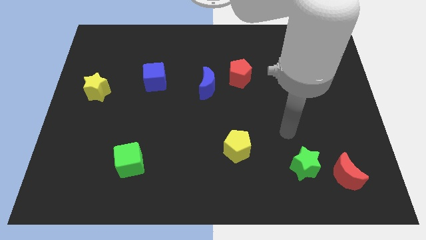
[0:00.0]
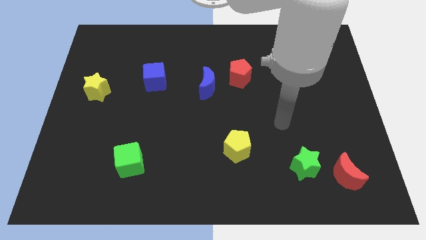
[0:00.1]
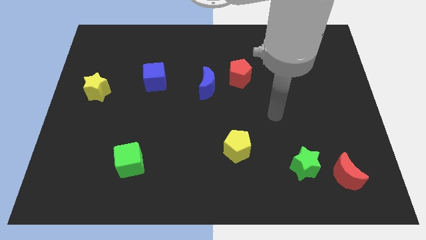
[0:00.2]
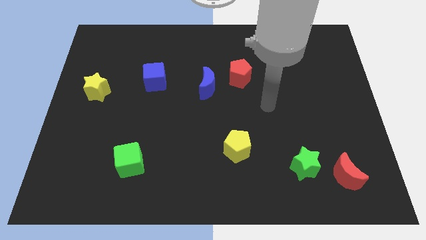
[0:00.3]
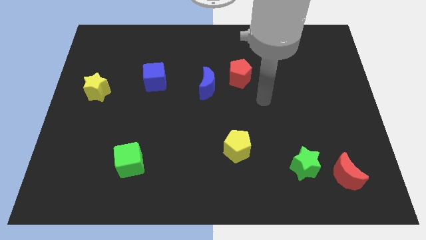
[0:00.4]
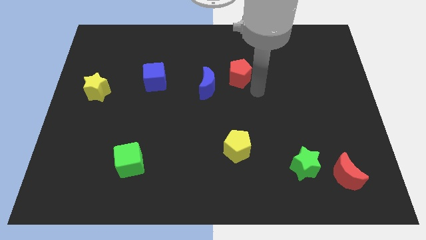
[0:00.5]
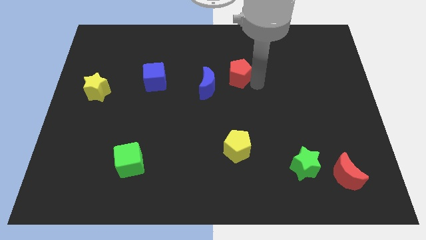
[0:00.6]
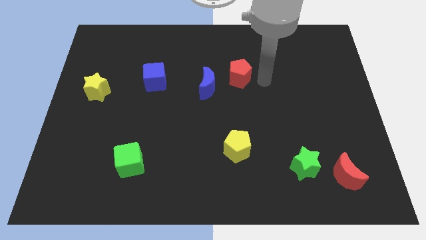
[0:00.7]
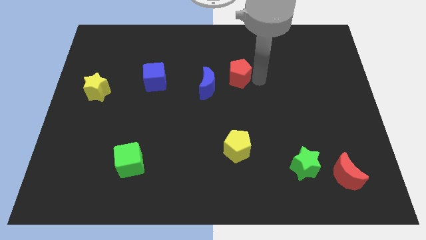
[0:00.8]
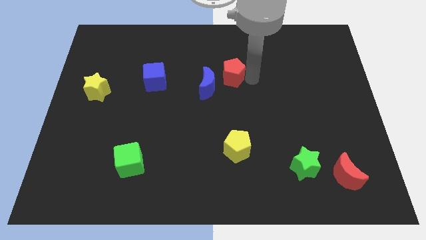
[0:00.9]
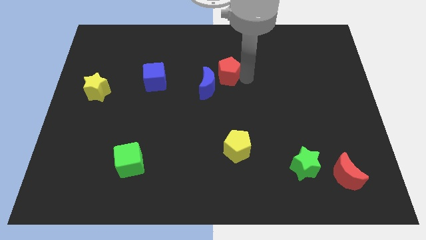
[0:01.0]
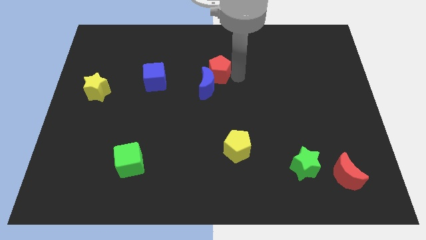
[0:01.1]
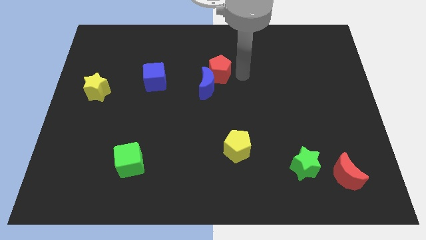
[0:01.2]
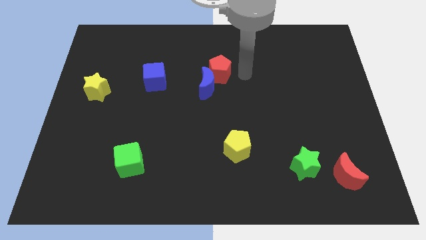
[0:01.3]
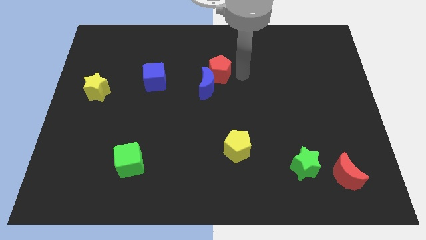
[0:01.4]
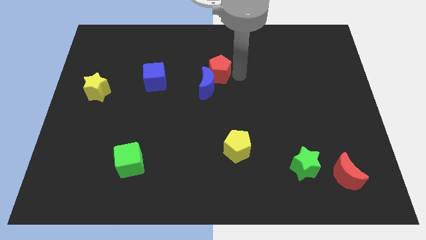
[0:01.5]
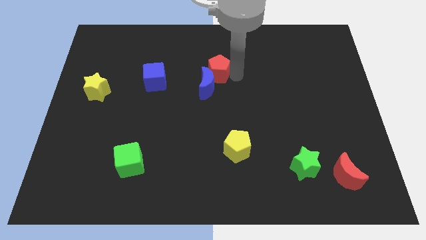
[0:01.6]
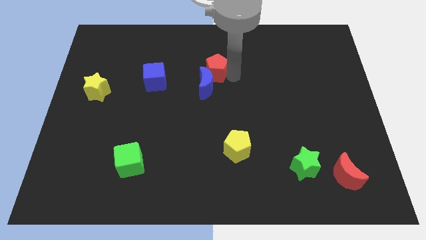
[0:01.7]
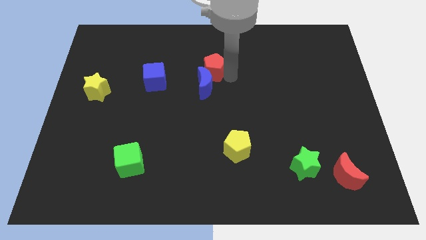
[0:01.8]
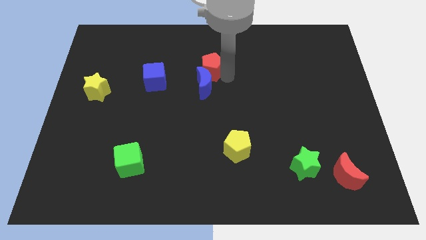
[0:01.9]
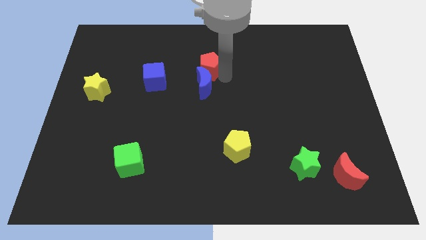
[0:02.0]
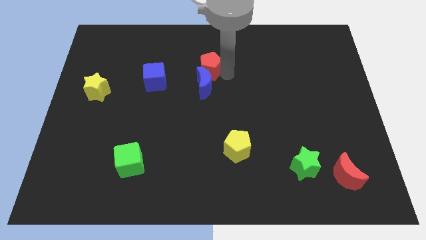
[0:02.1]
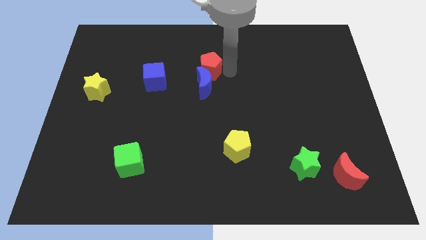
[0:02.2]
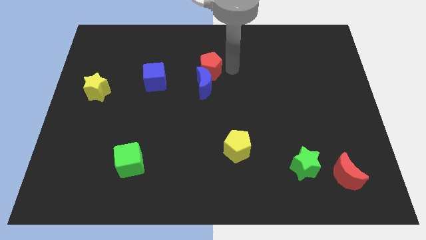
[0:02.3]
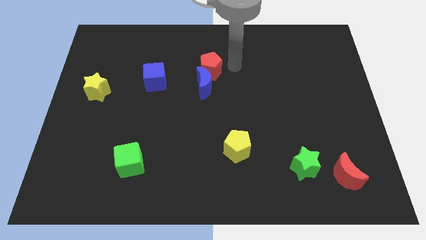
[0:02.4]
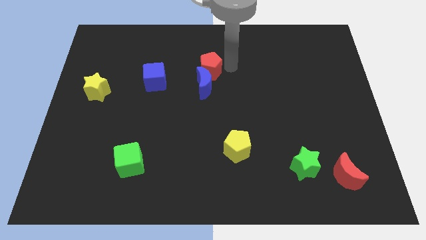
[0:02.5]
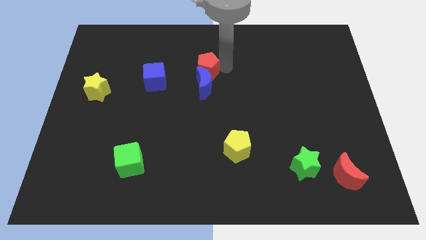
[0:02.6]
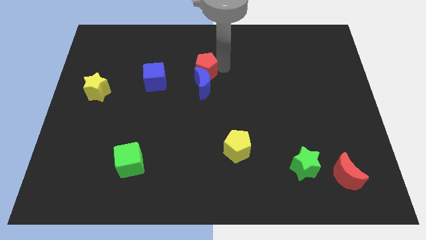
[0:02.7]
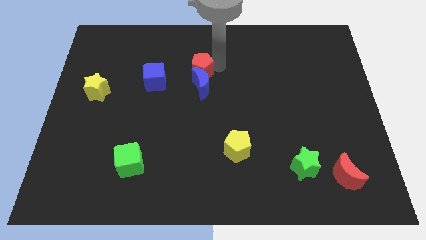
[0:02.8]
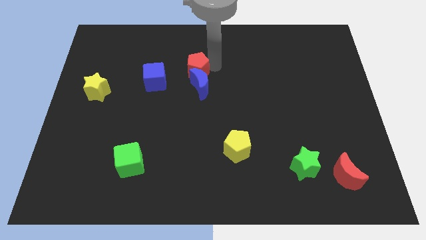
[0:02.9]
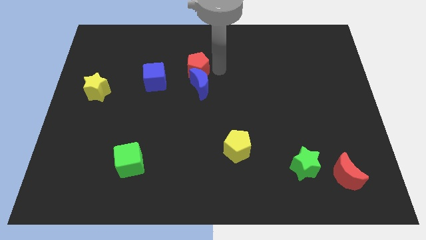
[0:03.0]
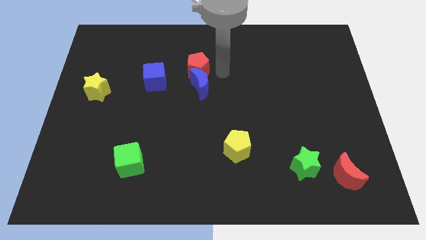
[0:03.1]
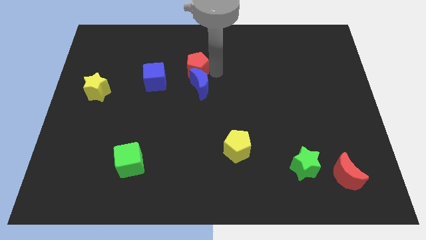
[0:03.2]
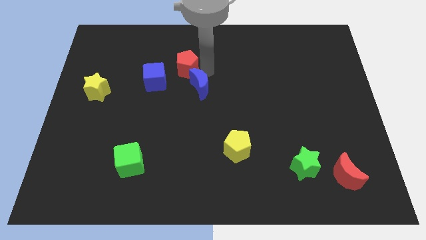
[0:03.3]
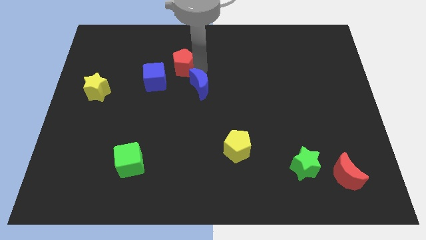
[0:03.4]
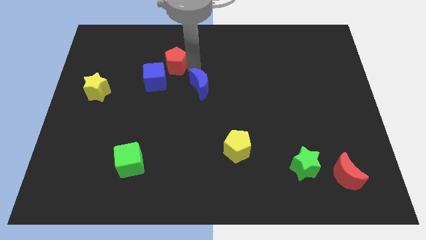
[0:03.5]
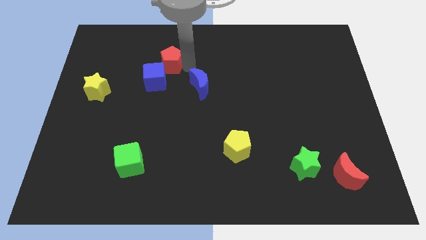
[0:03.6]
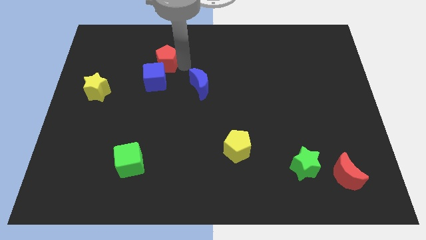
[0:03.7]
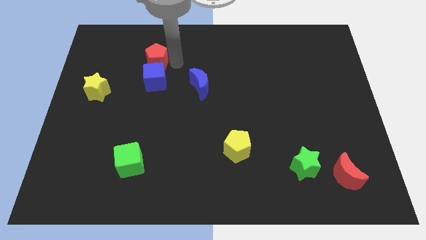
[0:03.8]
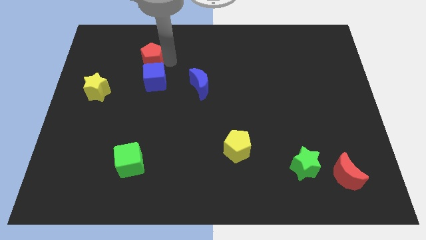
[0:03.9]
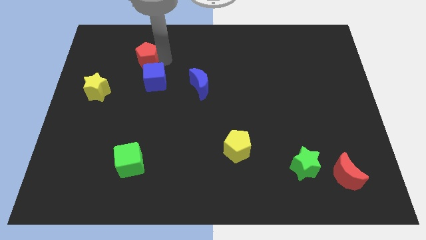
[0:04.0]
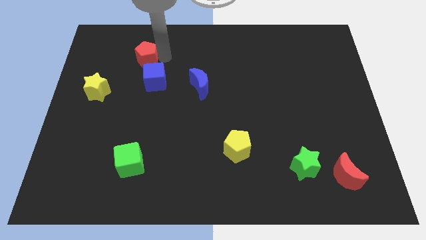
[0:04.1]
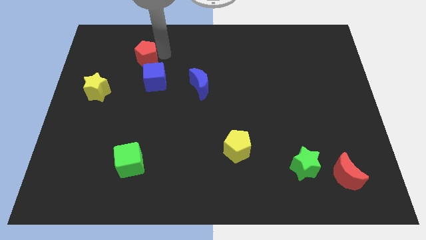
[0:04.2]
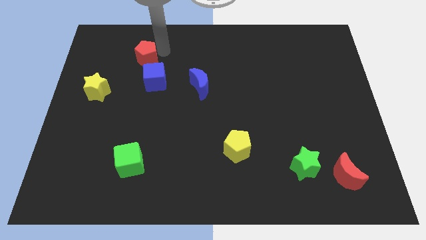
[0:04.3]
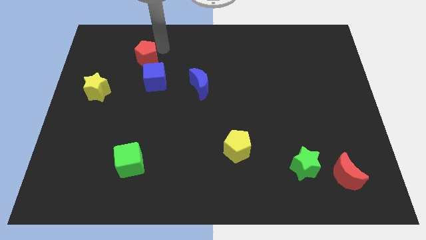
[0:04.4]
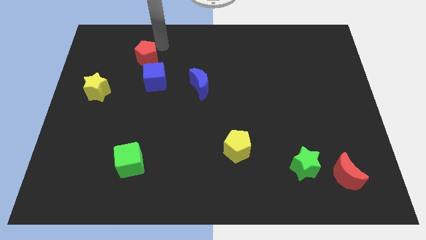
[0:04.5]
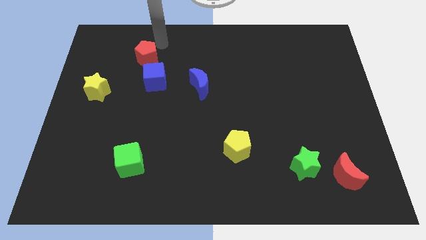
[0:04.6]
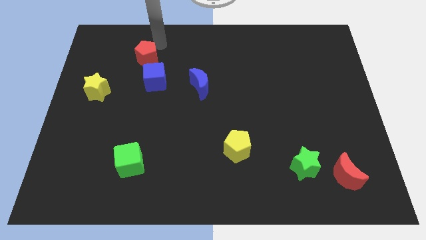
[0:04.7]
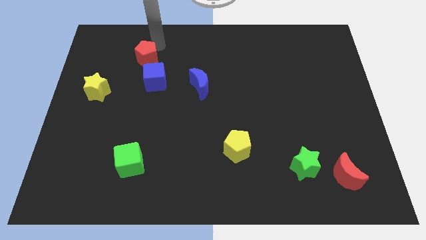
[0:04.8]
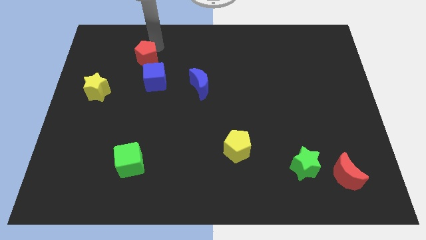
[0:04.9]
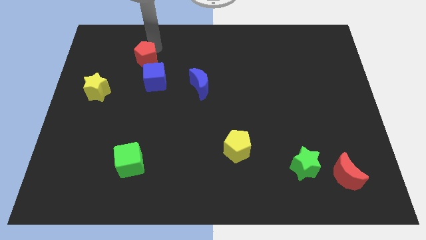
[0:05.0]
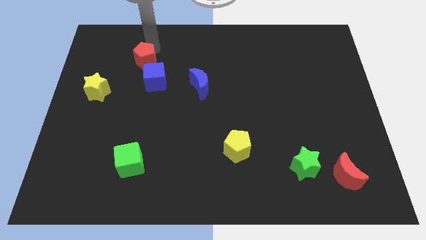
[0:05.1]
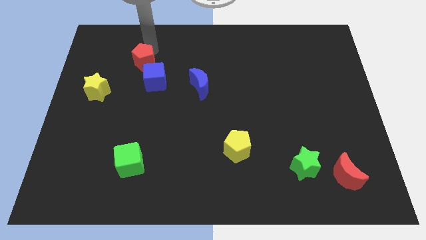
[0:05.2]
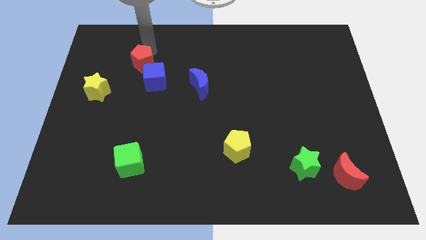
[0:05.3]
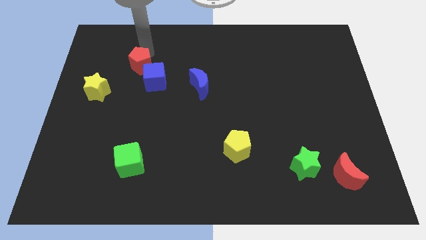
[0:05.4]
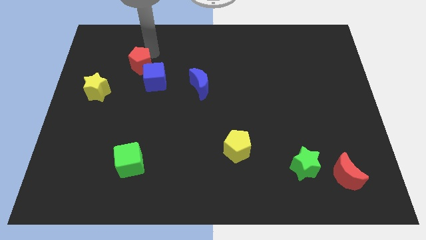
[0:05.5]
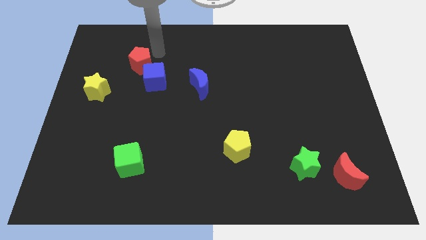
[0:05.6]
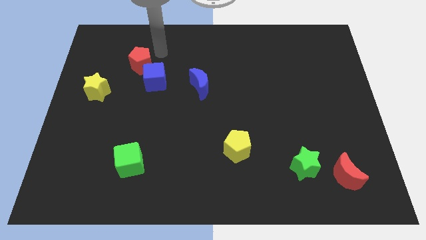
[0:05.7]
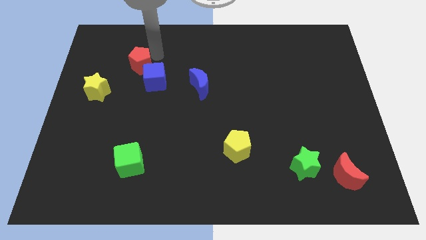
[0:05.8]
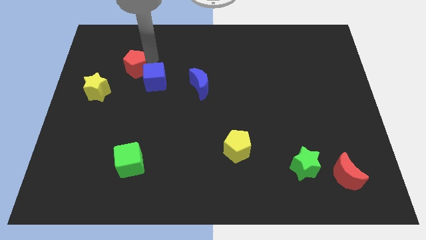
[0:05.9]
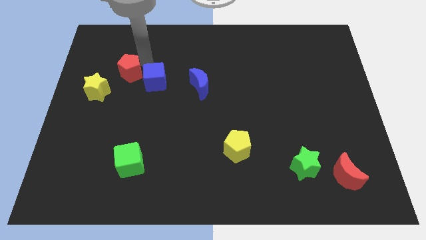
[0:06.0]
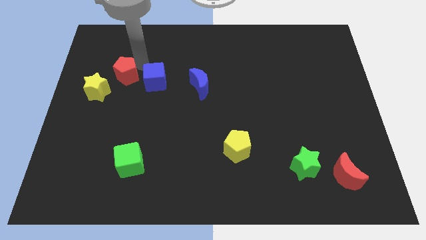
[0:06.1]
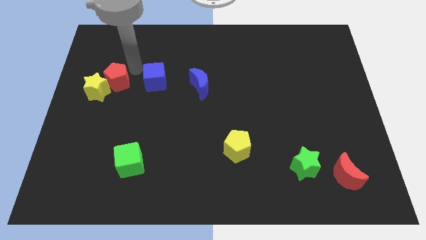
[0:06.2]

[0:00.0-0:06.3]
move the red pentagon to the yellow star

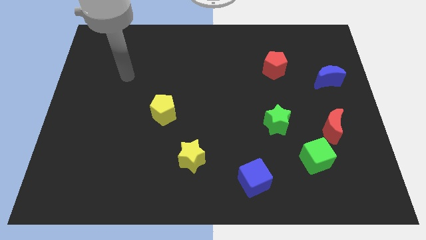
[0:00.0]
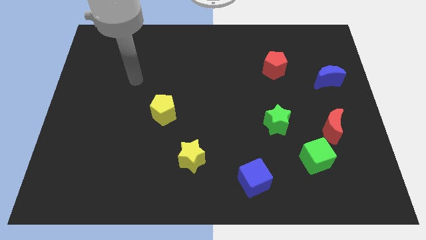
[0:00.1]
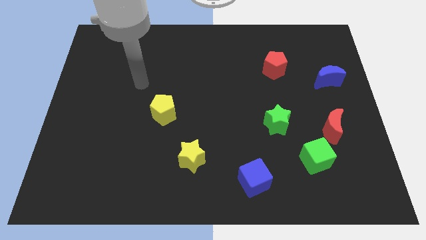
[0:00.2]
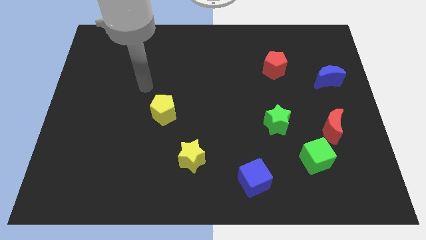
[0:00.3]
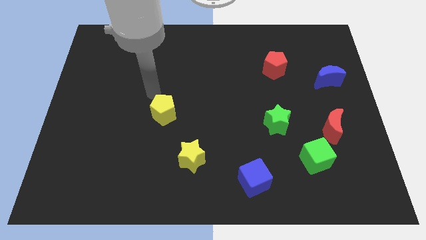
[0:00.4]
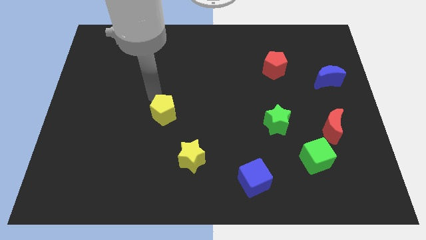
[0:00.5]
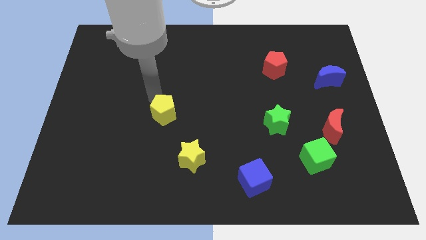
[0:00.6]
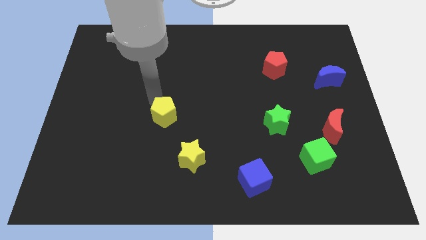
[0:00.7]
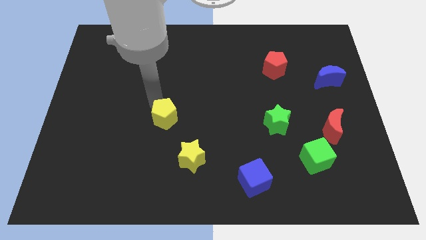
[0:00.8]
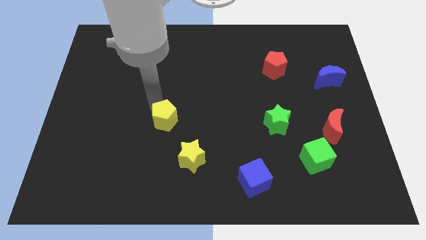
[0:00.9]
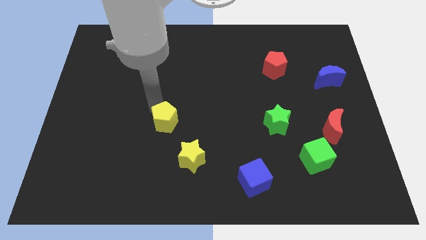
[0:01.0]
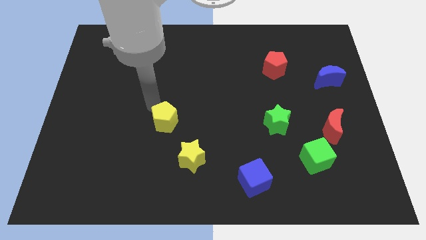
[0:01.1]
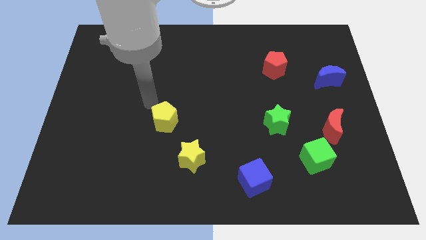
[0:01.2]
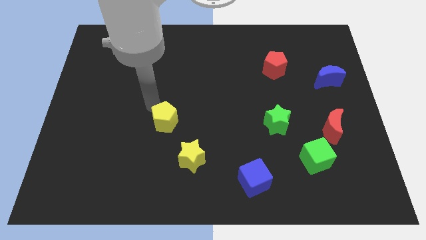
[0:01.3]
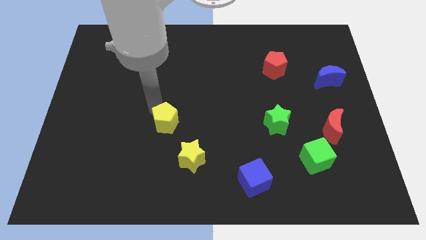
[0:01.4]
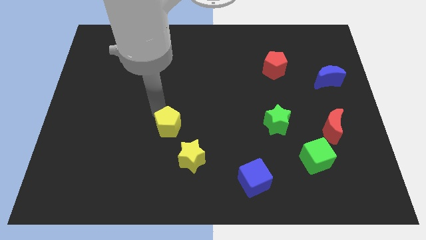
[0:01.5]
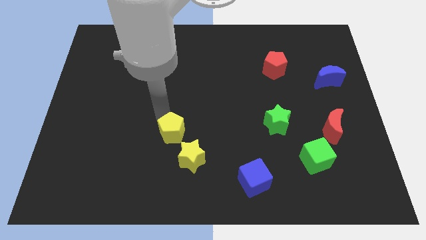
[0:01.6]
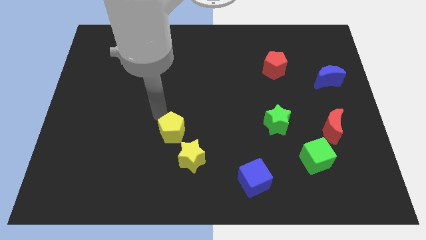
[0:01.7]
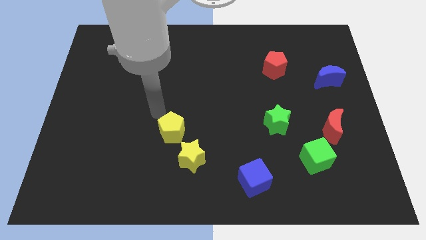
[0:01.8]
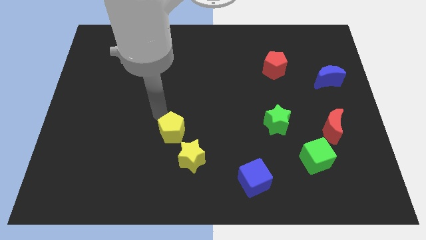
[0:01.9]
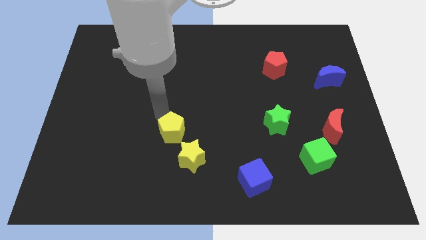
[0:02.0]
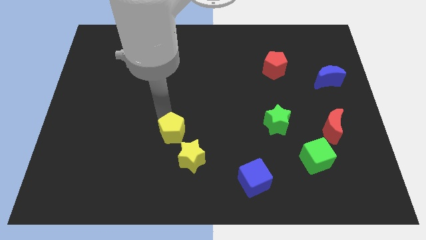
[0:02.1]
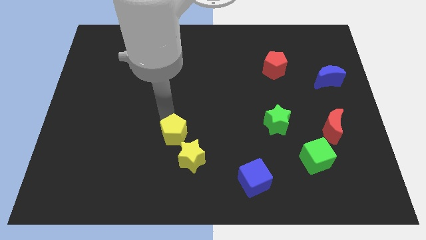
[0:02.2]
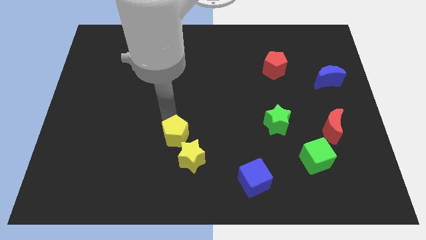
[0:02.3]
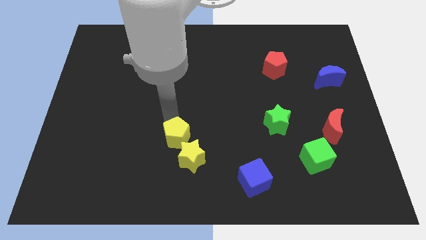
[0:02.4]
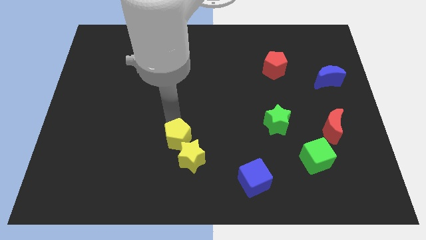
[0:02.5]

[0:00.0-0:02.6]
push the yellow pentagon close to the yellow star
